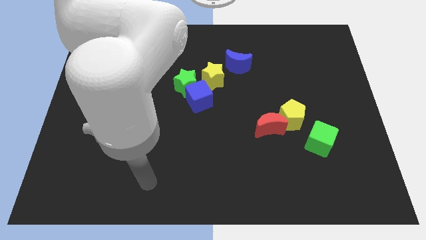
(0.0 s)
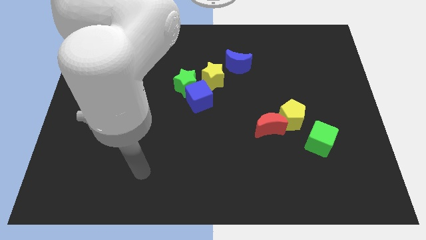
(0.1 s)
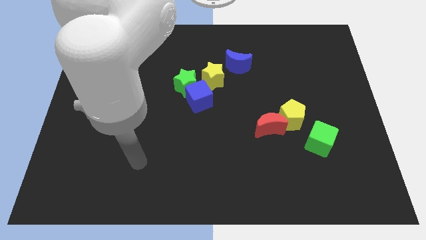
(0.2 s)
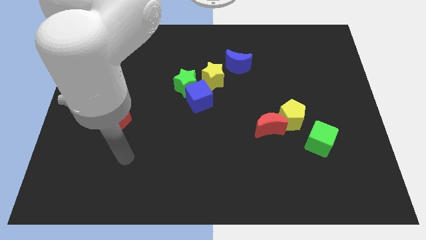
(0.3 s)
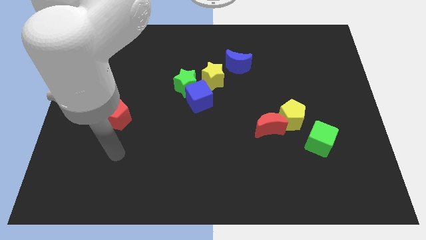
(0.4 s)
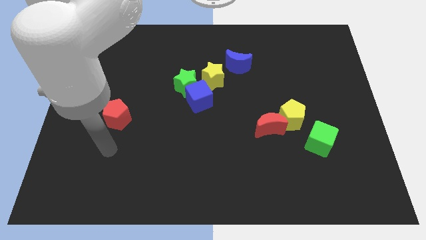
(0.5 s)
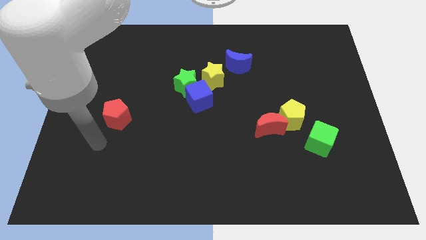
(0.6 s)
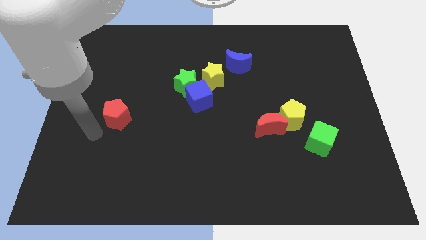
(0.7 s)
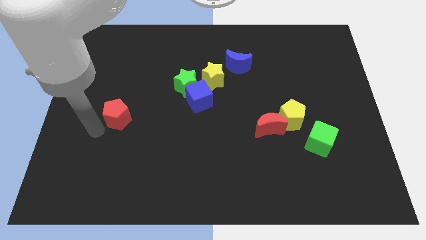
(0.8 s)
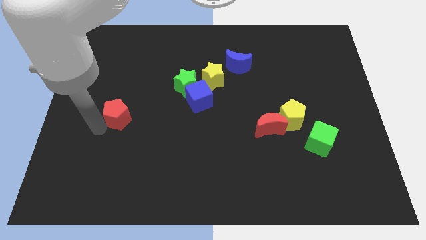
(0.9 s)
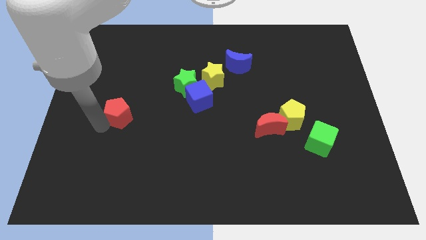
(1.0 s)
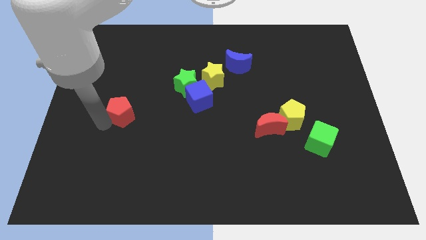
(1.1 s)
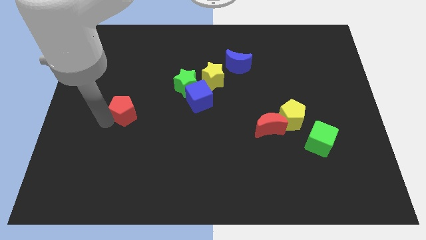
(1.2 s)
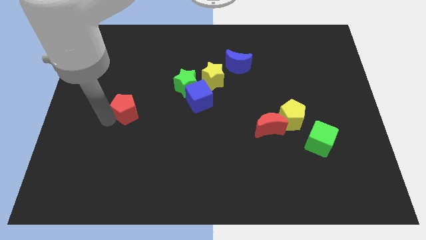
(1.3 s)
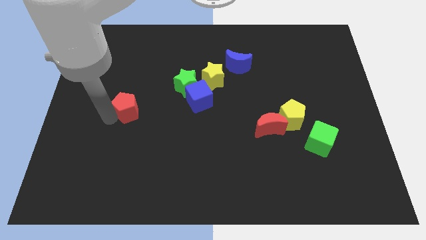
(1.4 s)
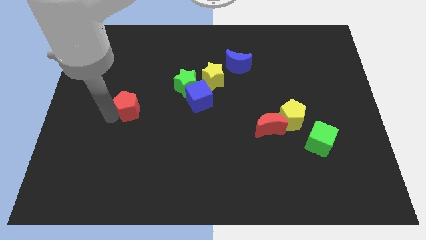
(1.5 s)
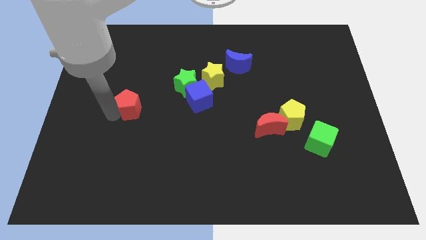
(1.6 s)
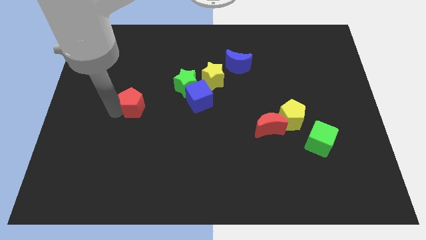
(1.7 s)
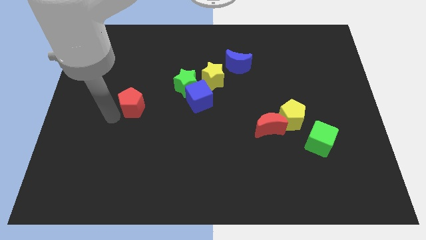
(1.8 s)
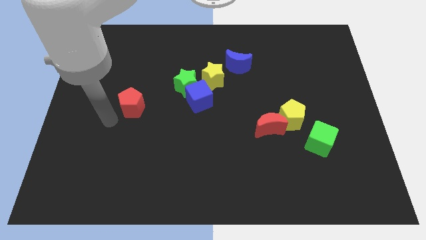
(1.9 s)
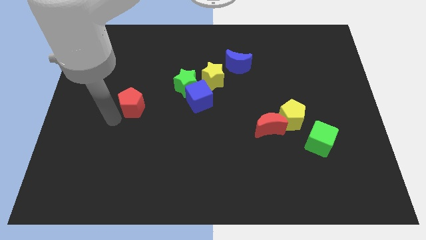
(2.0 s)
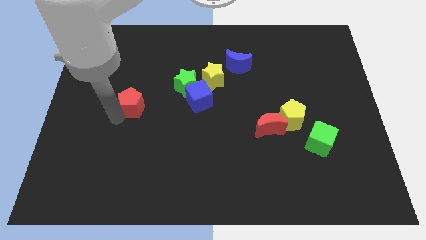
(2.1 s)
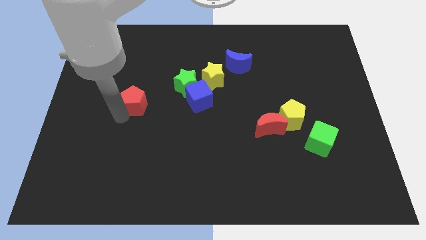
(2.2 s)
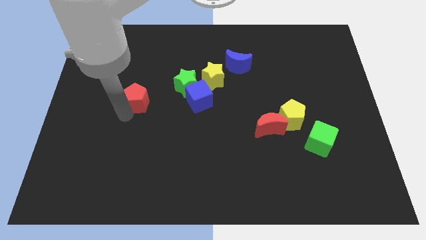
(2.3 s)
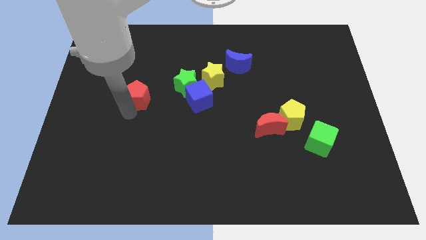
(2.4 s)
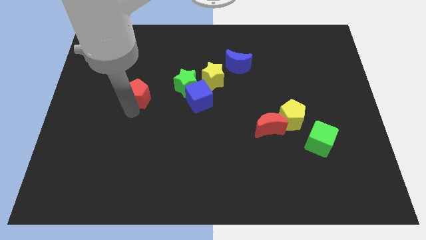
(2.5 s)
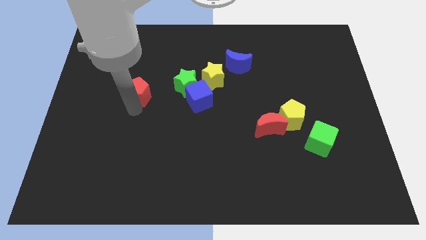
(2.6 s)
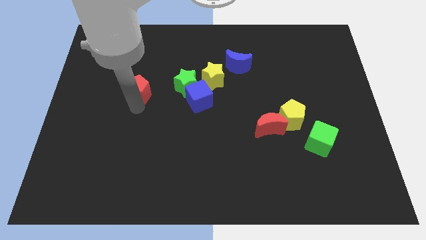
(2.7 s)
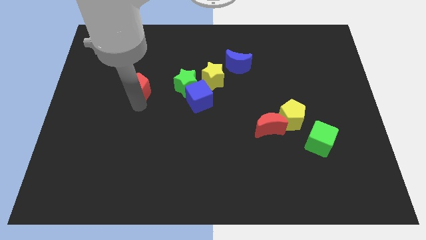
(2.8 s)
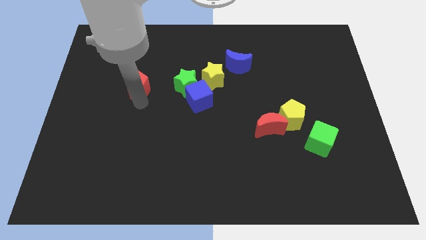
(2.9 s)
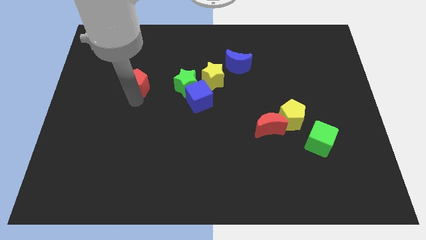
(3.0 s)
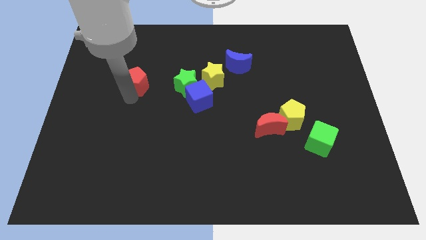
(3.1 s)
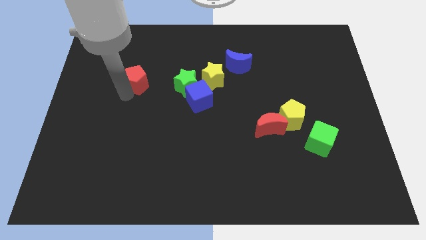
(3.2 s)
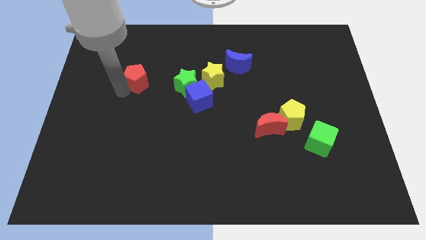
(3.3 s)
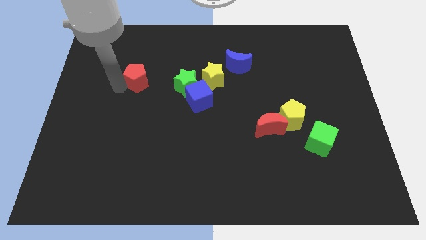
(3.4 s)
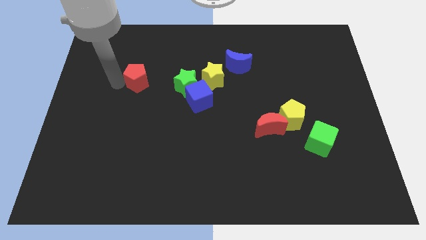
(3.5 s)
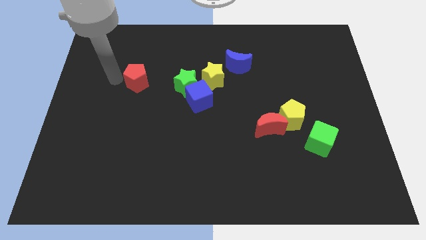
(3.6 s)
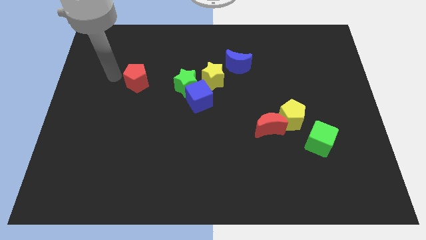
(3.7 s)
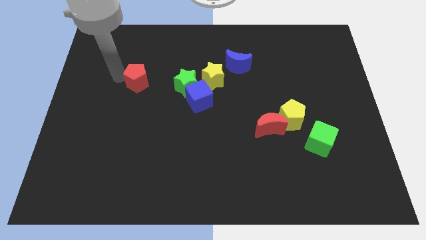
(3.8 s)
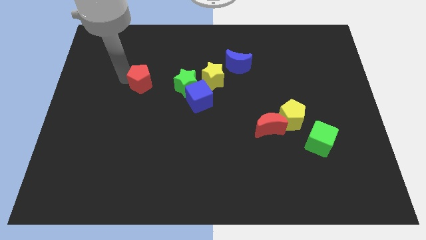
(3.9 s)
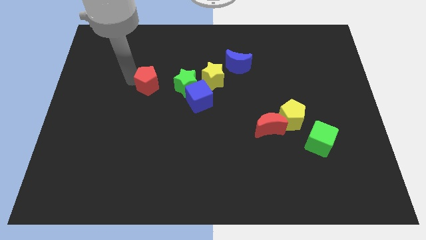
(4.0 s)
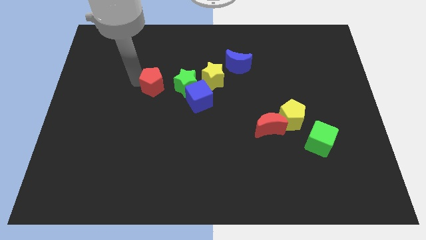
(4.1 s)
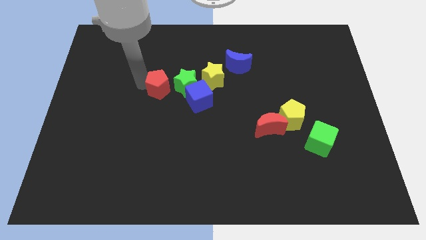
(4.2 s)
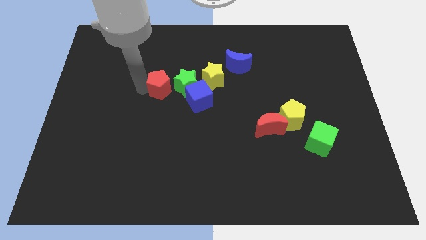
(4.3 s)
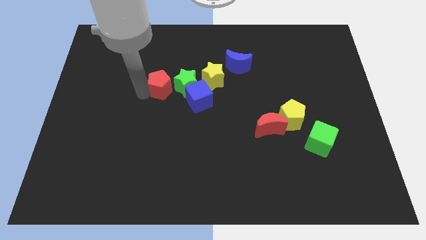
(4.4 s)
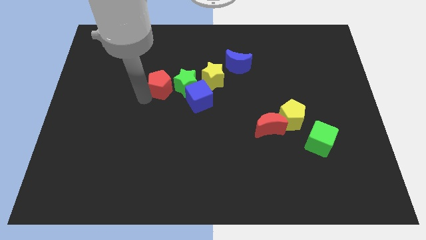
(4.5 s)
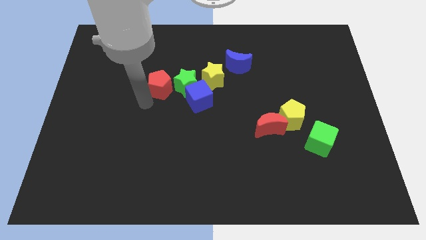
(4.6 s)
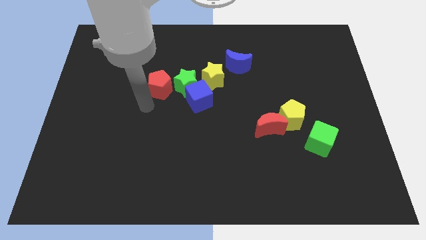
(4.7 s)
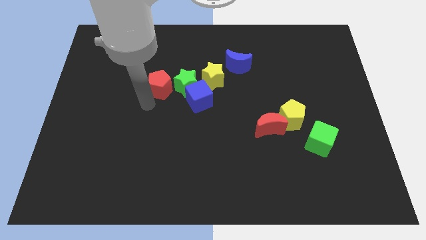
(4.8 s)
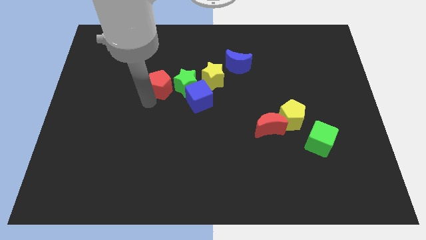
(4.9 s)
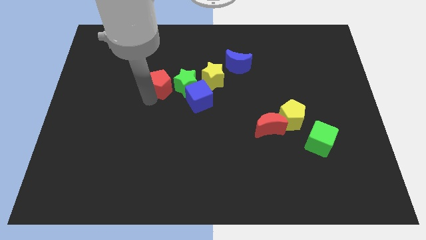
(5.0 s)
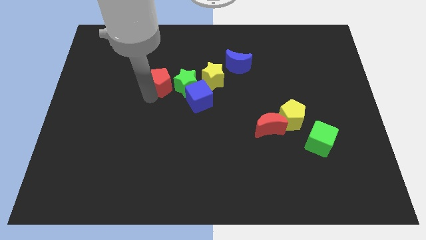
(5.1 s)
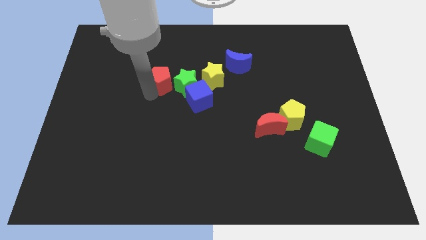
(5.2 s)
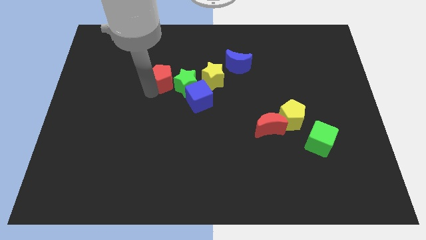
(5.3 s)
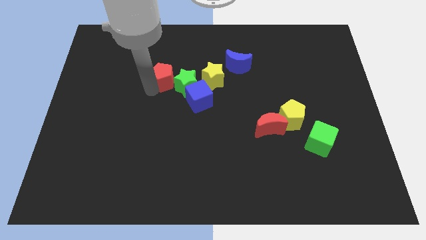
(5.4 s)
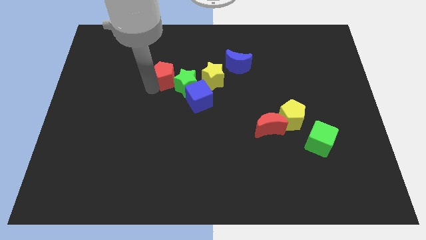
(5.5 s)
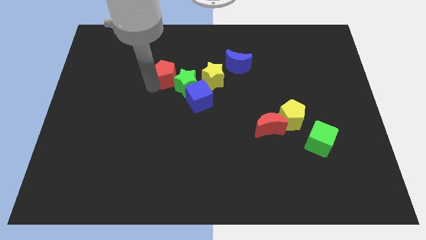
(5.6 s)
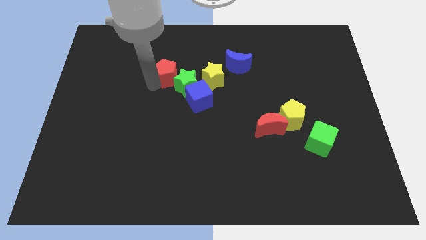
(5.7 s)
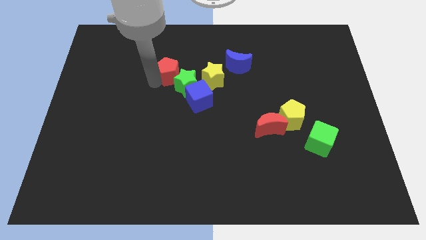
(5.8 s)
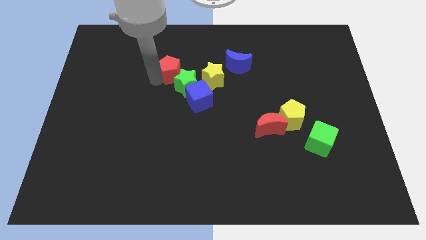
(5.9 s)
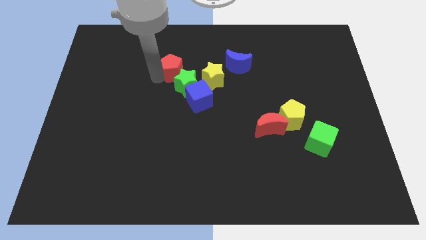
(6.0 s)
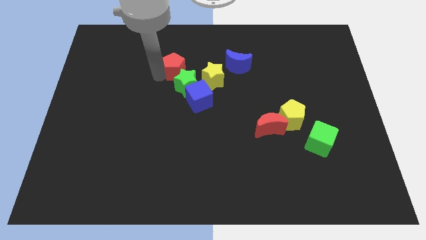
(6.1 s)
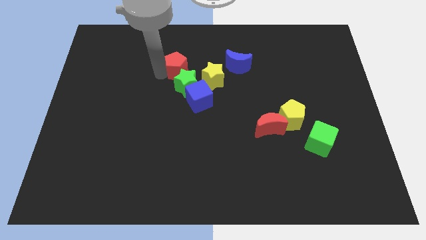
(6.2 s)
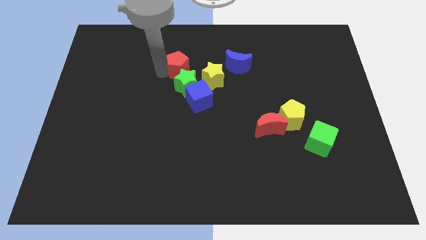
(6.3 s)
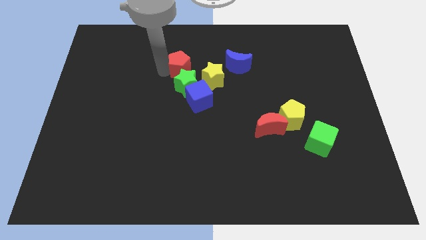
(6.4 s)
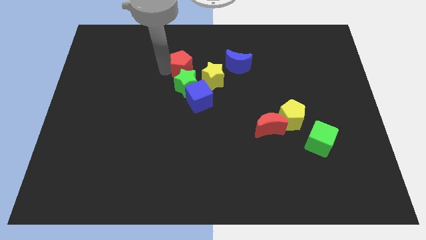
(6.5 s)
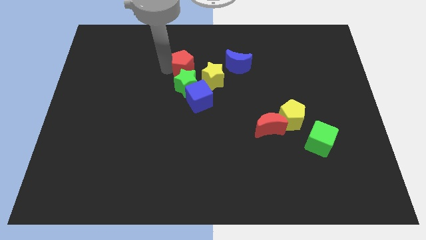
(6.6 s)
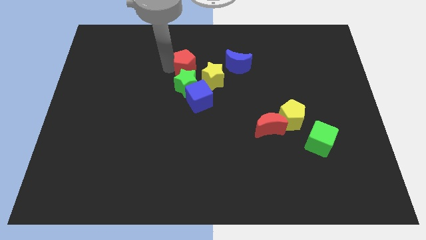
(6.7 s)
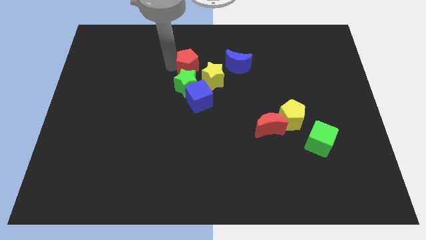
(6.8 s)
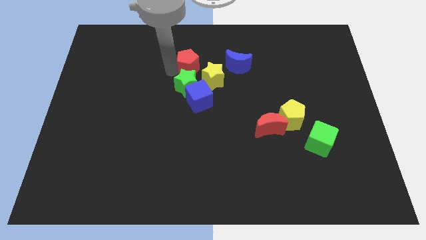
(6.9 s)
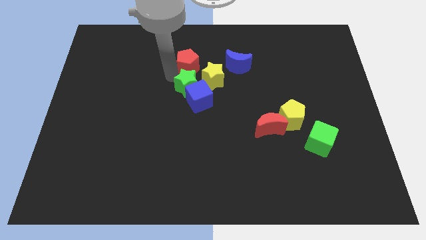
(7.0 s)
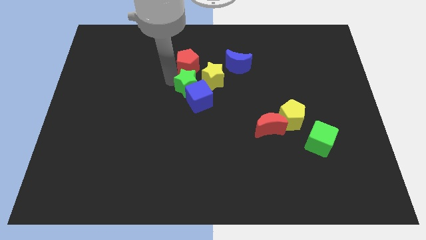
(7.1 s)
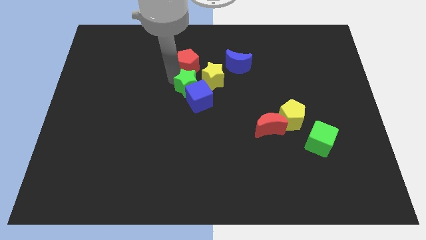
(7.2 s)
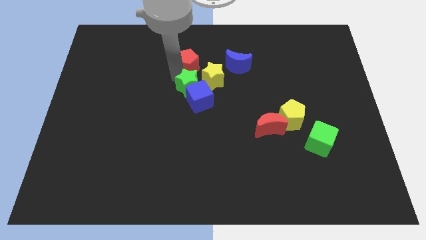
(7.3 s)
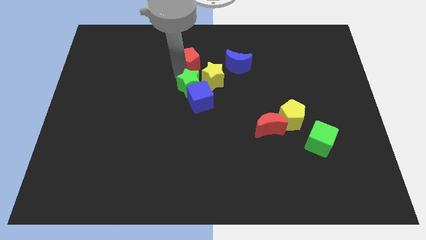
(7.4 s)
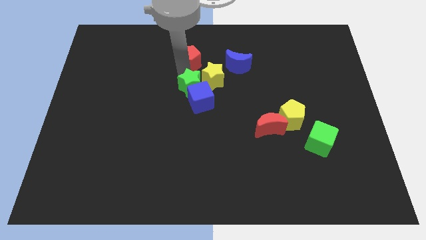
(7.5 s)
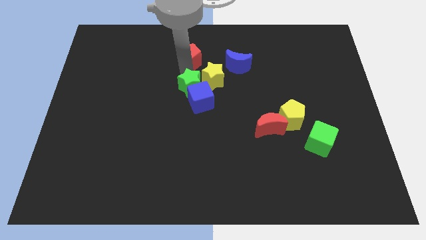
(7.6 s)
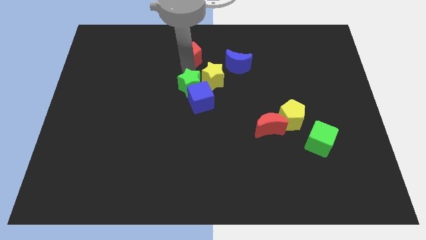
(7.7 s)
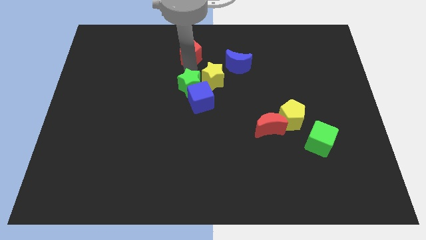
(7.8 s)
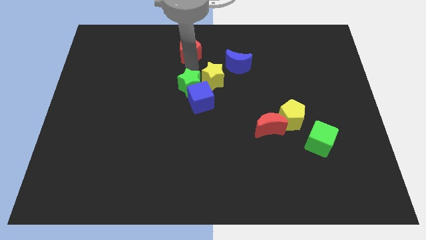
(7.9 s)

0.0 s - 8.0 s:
slide the red pentagon to the towards your base

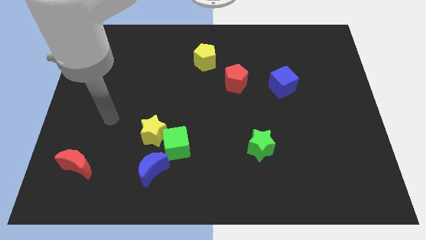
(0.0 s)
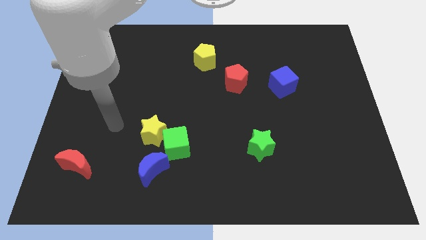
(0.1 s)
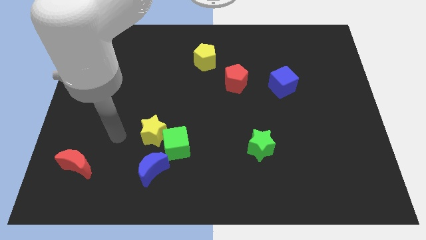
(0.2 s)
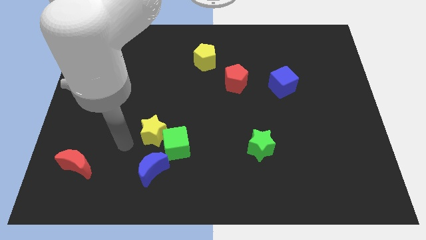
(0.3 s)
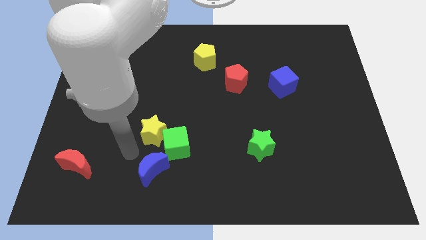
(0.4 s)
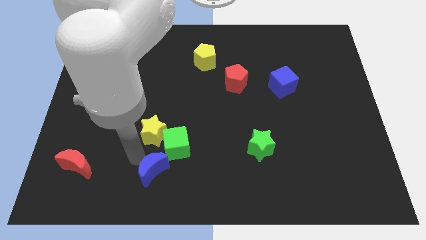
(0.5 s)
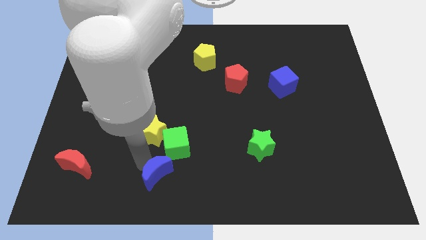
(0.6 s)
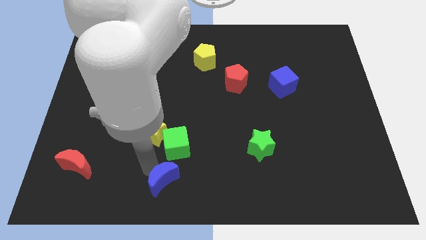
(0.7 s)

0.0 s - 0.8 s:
move the blue moon to the bottom
